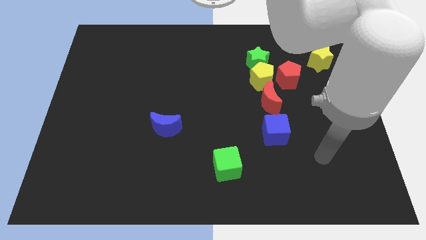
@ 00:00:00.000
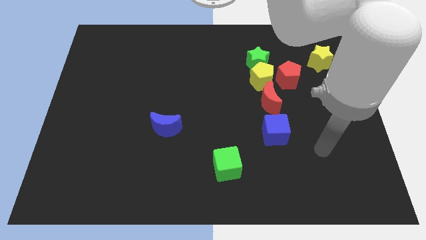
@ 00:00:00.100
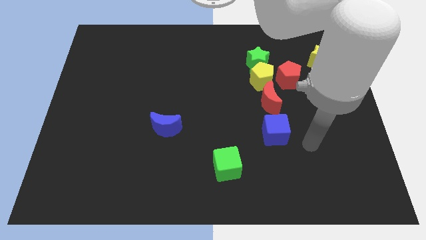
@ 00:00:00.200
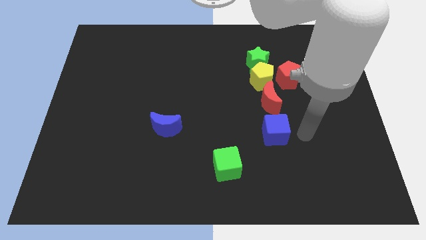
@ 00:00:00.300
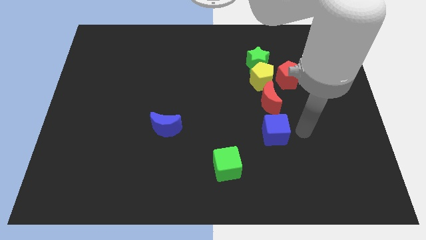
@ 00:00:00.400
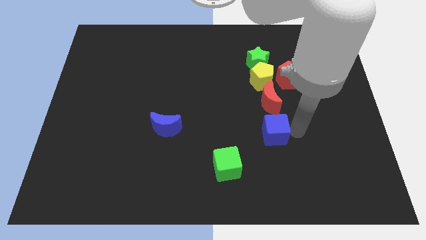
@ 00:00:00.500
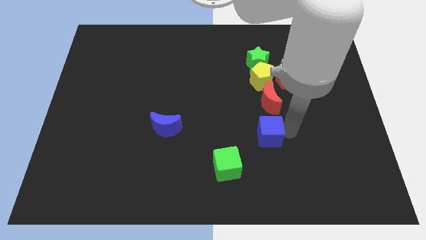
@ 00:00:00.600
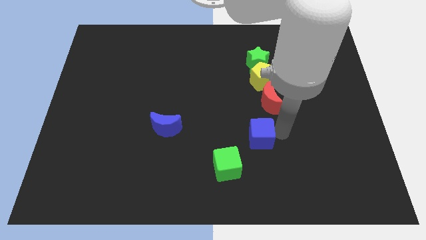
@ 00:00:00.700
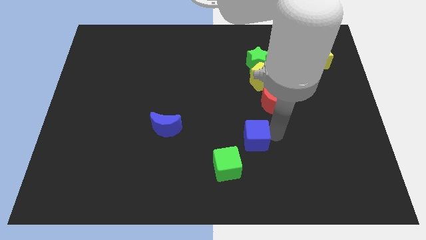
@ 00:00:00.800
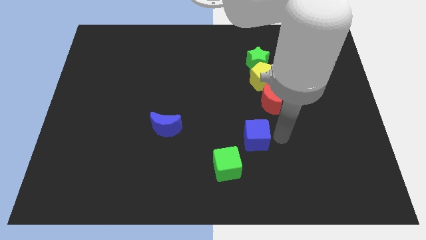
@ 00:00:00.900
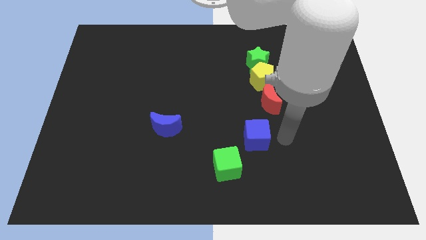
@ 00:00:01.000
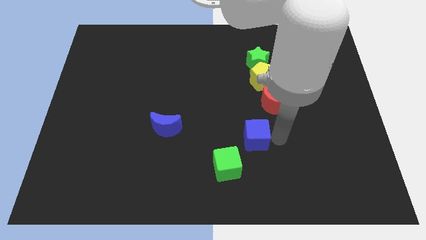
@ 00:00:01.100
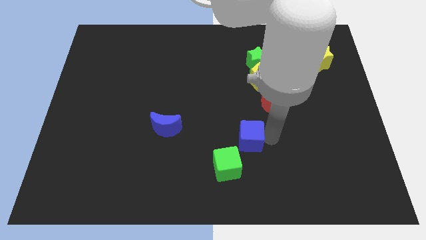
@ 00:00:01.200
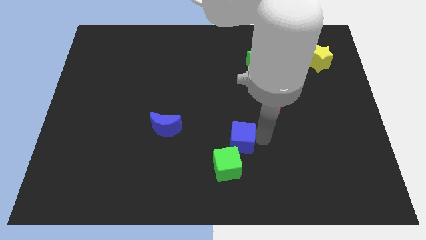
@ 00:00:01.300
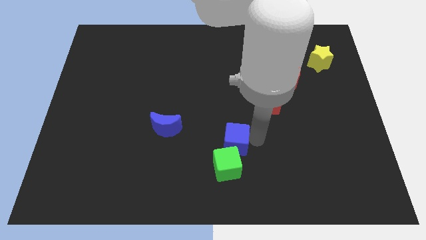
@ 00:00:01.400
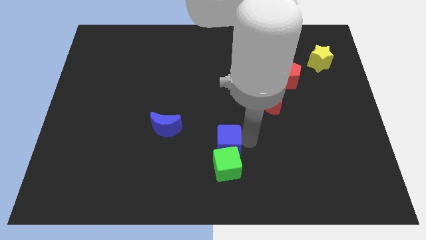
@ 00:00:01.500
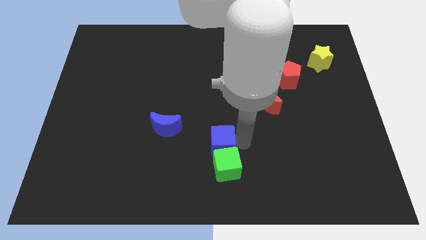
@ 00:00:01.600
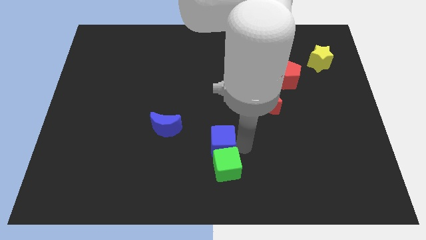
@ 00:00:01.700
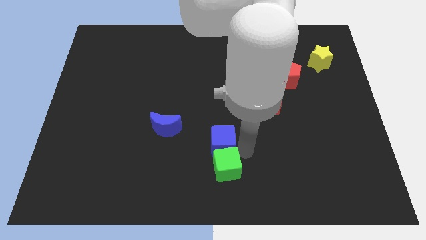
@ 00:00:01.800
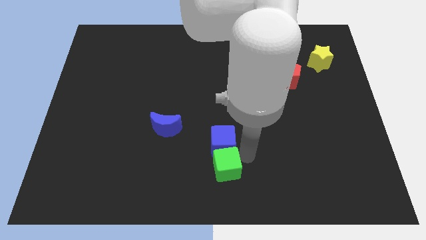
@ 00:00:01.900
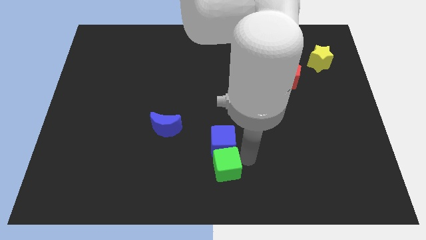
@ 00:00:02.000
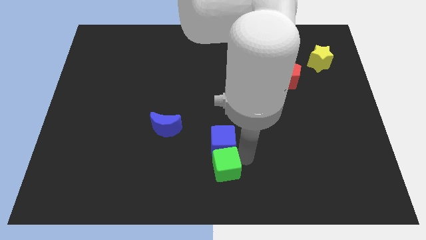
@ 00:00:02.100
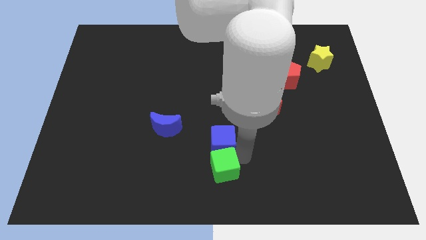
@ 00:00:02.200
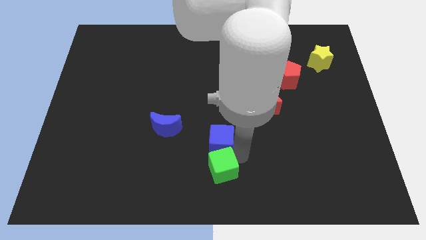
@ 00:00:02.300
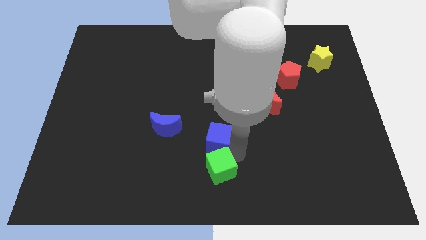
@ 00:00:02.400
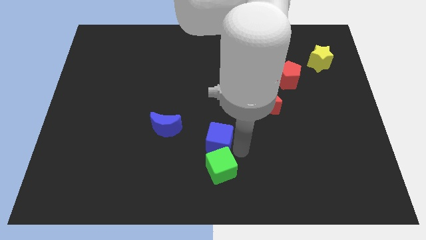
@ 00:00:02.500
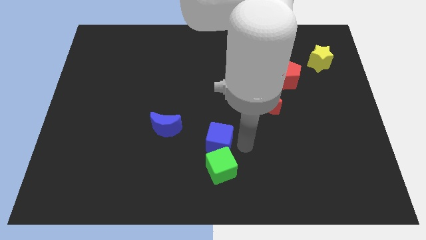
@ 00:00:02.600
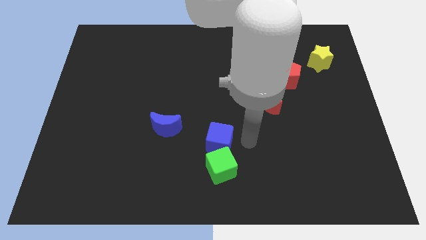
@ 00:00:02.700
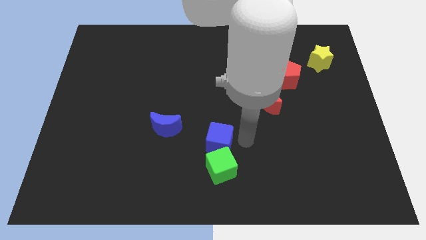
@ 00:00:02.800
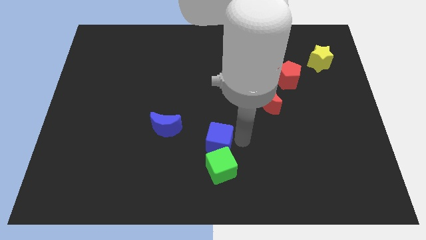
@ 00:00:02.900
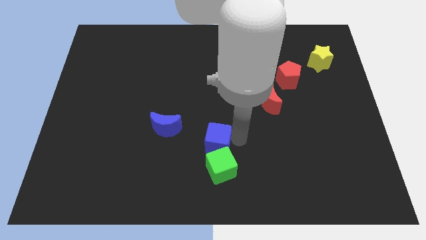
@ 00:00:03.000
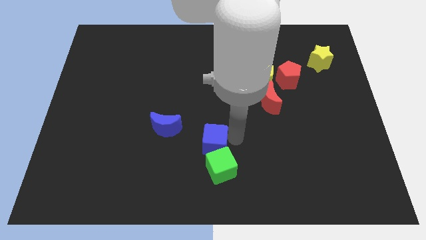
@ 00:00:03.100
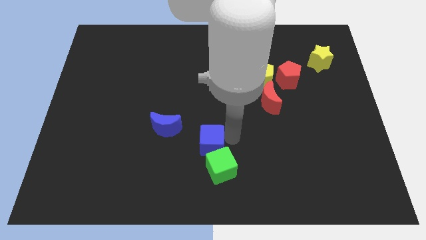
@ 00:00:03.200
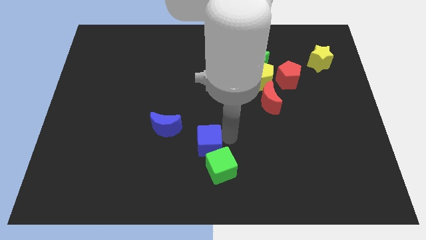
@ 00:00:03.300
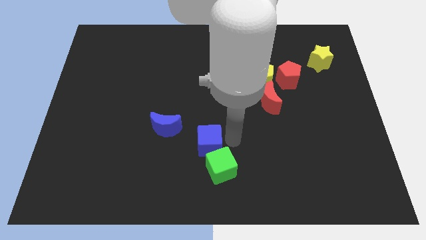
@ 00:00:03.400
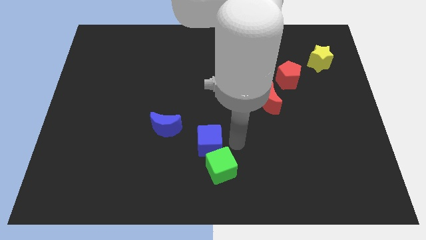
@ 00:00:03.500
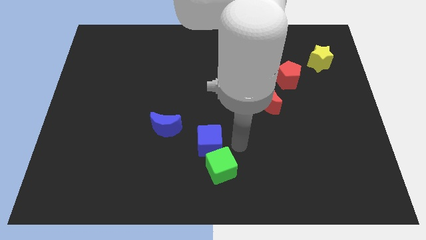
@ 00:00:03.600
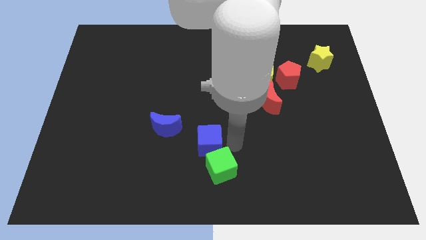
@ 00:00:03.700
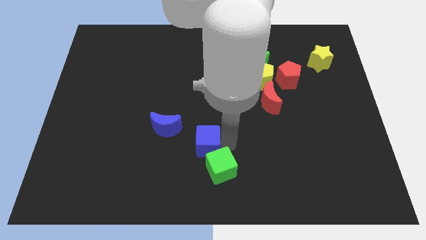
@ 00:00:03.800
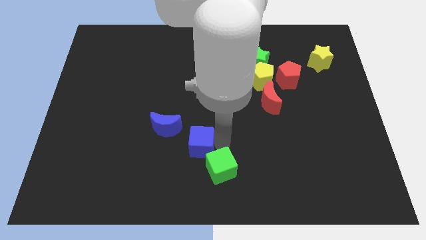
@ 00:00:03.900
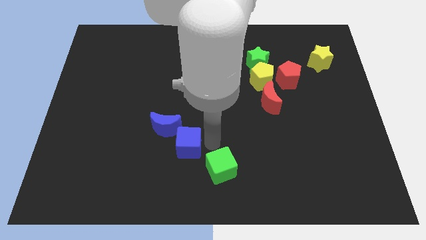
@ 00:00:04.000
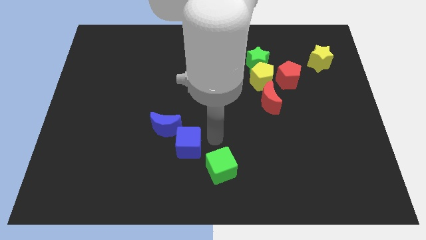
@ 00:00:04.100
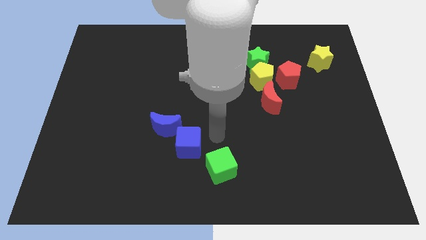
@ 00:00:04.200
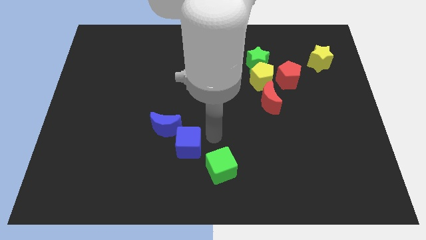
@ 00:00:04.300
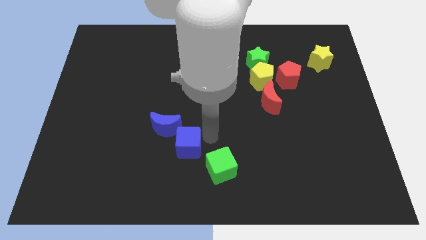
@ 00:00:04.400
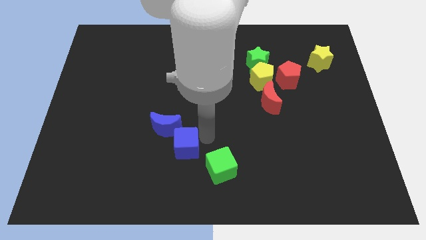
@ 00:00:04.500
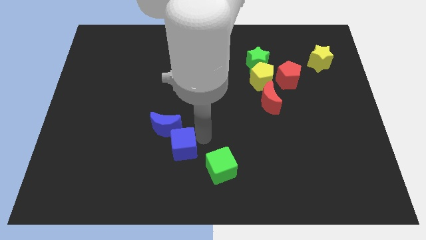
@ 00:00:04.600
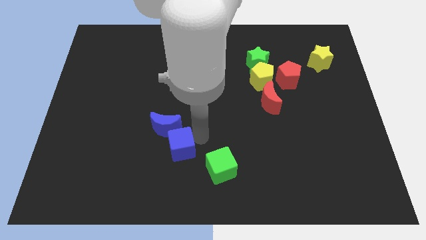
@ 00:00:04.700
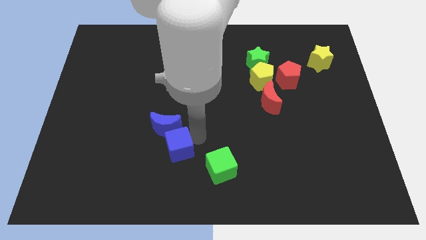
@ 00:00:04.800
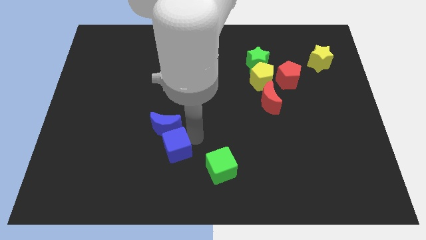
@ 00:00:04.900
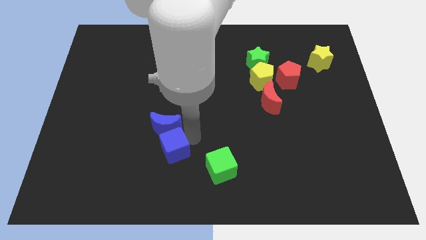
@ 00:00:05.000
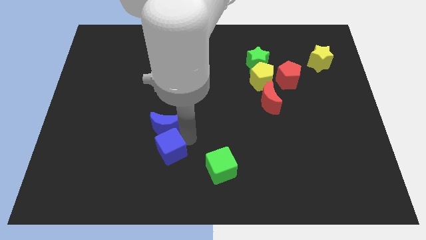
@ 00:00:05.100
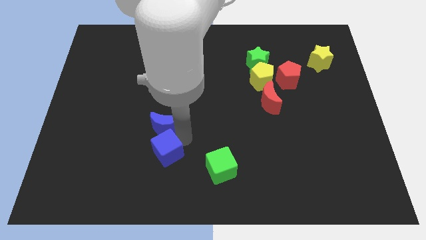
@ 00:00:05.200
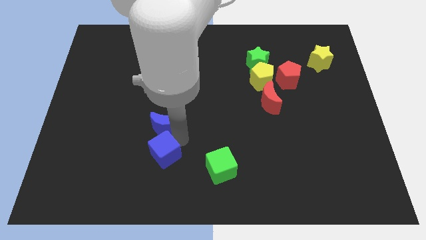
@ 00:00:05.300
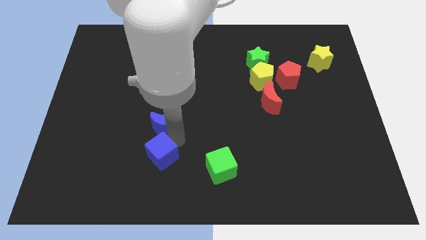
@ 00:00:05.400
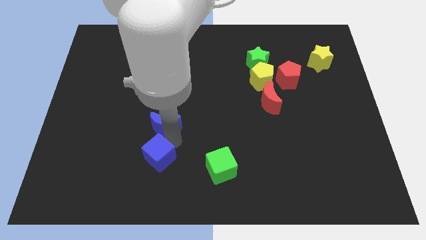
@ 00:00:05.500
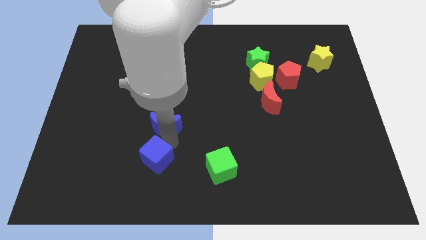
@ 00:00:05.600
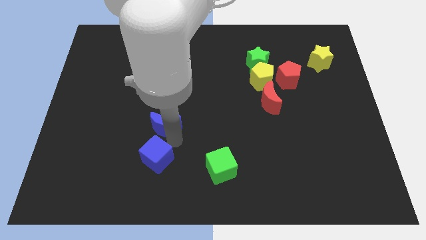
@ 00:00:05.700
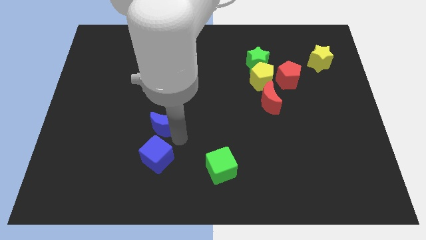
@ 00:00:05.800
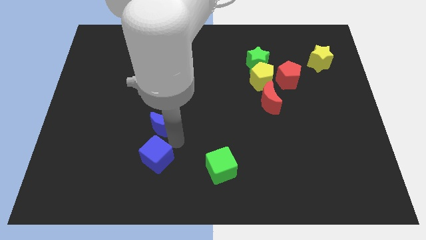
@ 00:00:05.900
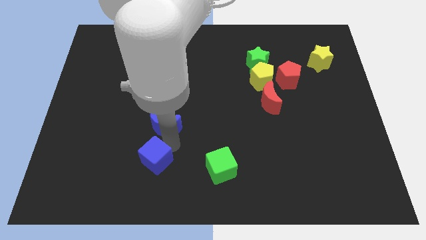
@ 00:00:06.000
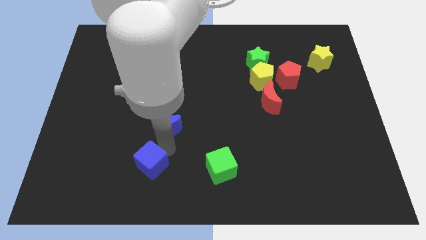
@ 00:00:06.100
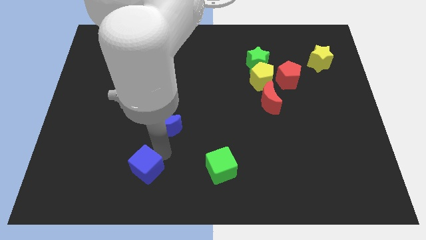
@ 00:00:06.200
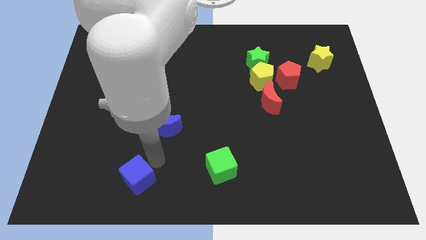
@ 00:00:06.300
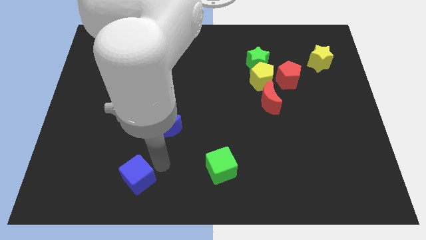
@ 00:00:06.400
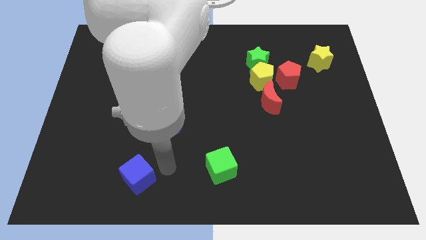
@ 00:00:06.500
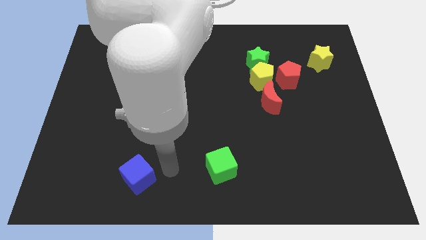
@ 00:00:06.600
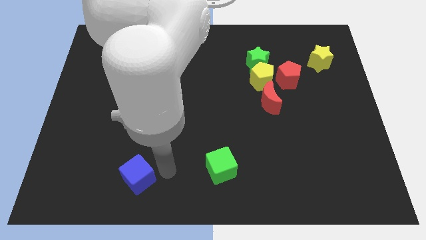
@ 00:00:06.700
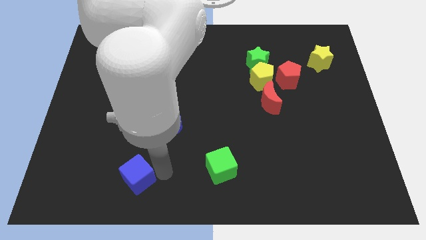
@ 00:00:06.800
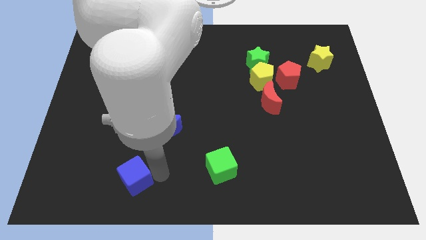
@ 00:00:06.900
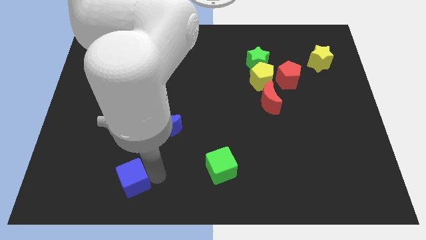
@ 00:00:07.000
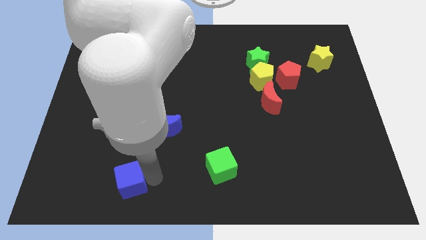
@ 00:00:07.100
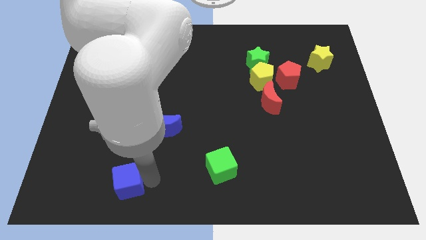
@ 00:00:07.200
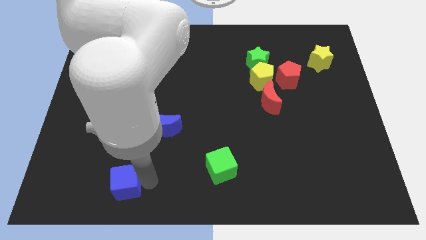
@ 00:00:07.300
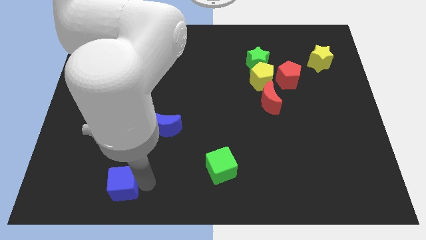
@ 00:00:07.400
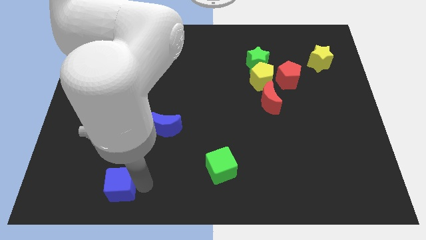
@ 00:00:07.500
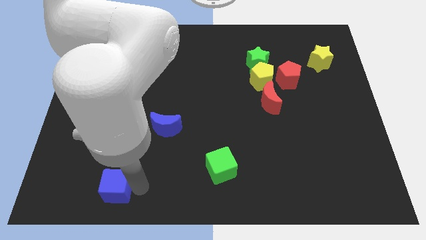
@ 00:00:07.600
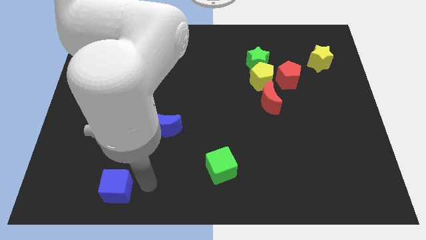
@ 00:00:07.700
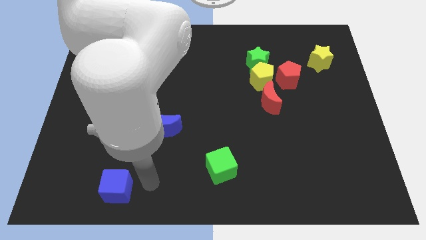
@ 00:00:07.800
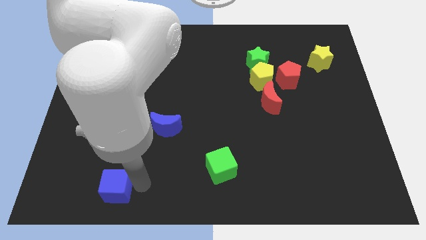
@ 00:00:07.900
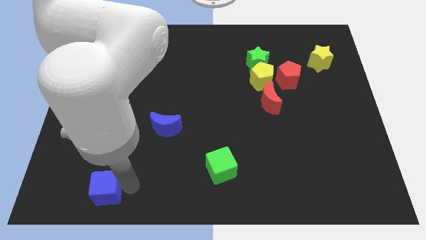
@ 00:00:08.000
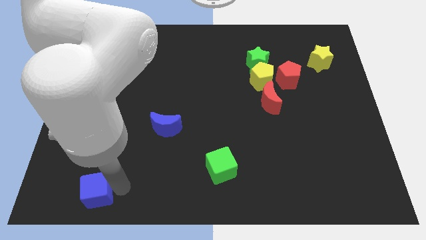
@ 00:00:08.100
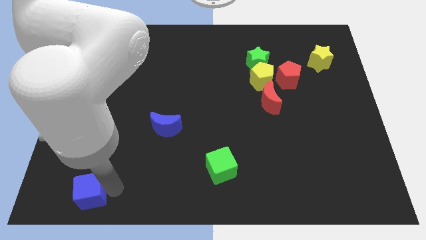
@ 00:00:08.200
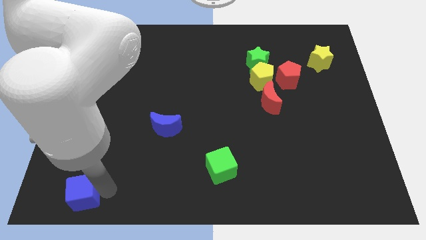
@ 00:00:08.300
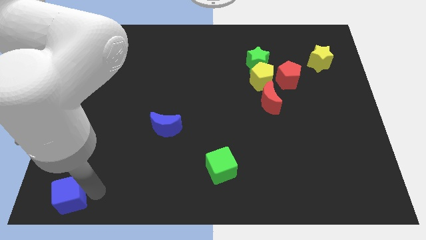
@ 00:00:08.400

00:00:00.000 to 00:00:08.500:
move the blue cube to the bottom left corner
